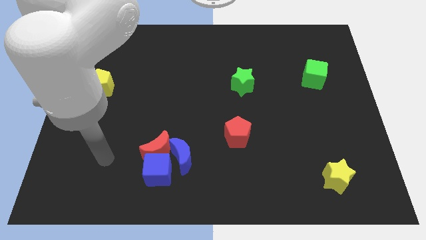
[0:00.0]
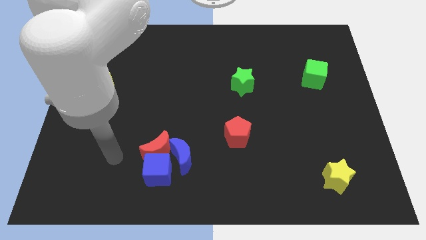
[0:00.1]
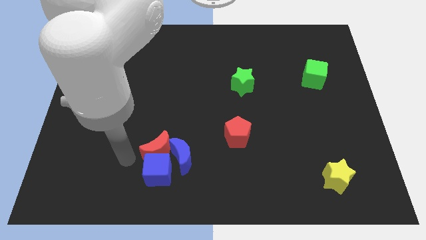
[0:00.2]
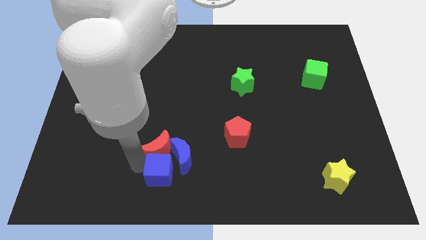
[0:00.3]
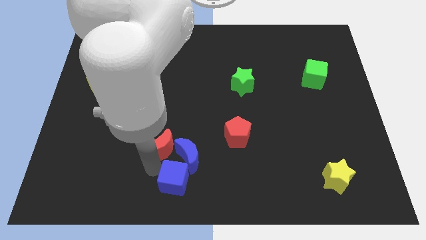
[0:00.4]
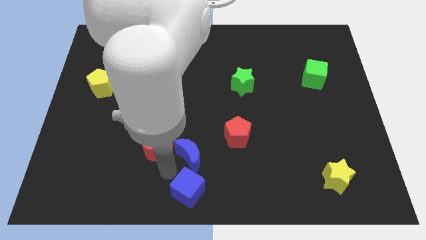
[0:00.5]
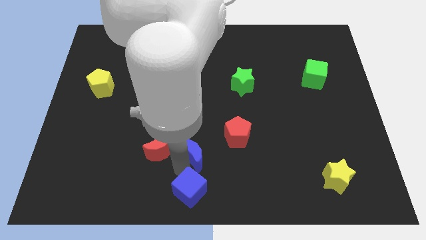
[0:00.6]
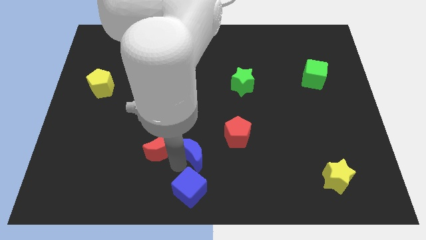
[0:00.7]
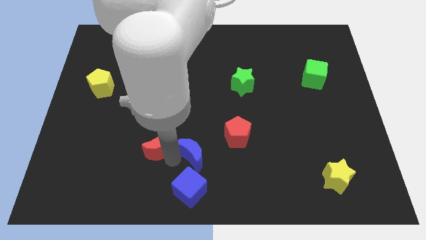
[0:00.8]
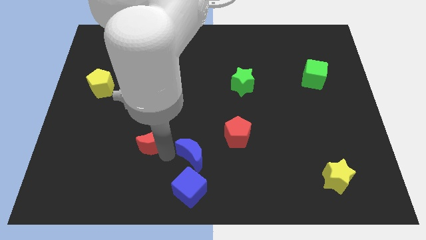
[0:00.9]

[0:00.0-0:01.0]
pull the red moon apart from the blue cube and blue moon

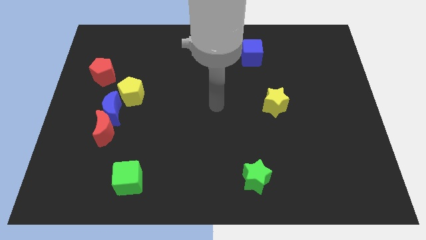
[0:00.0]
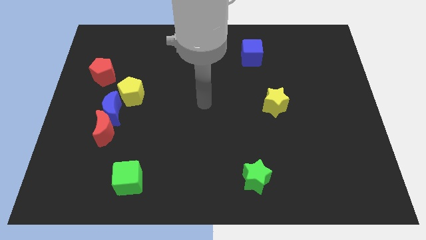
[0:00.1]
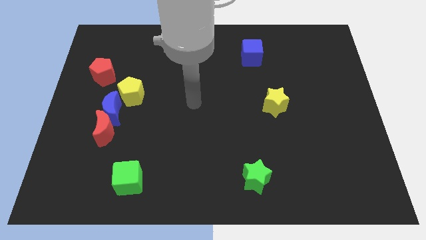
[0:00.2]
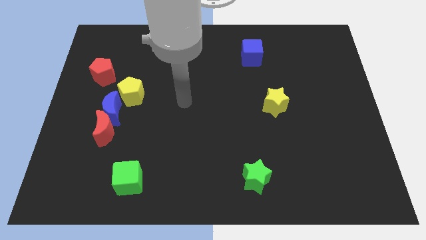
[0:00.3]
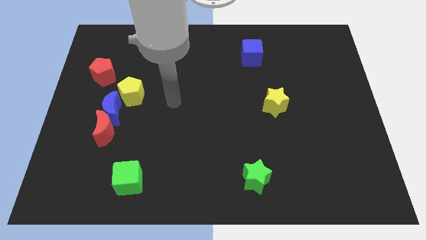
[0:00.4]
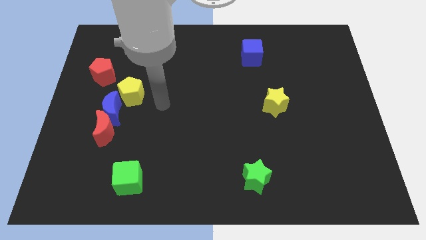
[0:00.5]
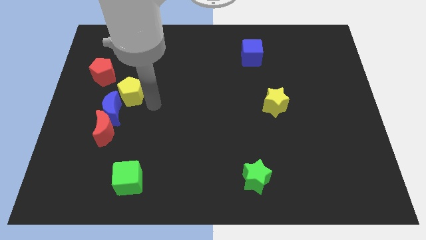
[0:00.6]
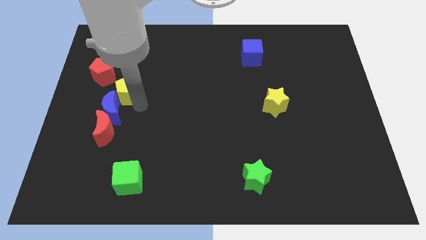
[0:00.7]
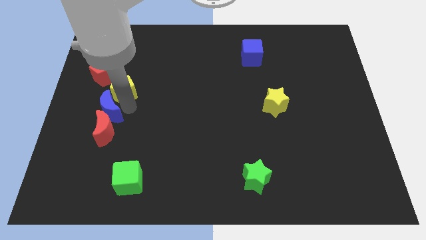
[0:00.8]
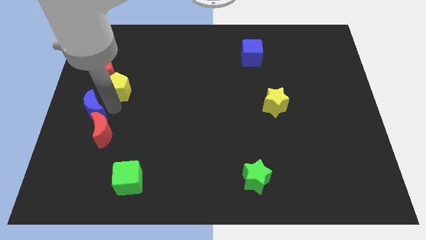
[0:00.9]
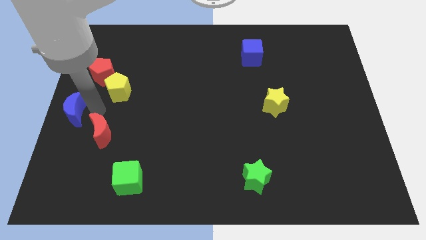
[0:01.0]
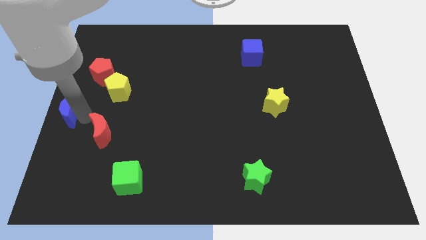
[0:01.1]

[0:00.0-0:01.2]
move the red moon away from the blue moon

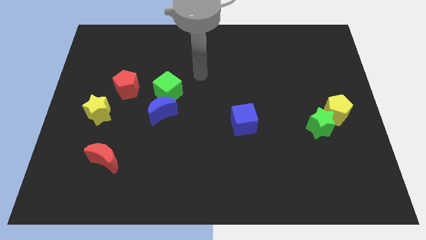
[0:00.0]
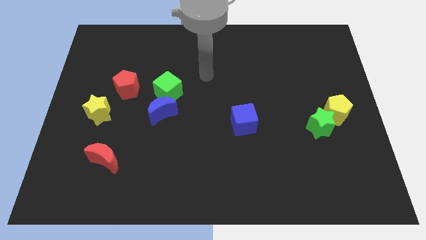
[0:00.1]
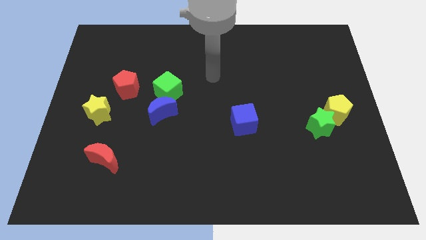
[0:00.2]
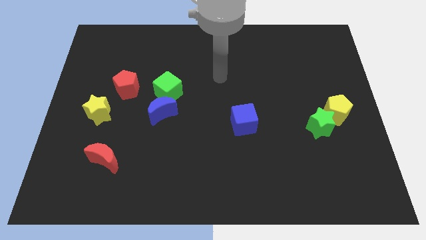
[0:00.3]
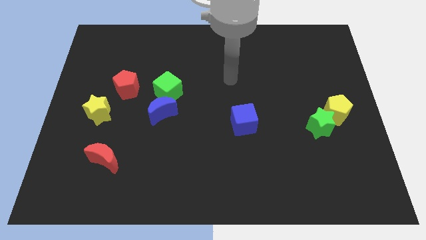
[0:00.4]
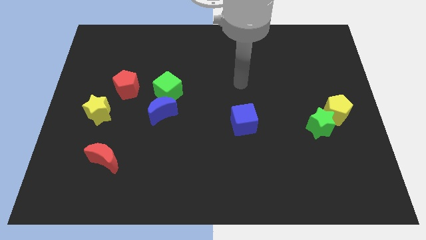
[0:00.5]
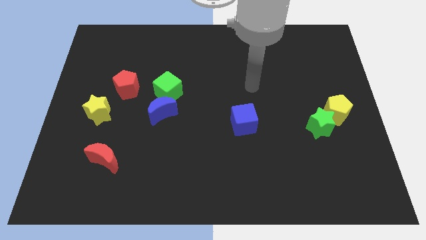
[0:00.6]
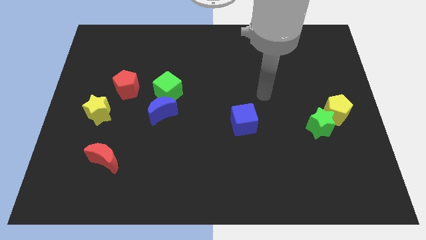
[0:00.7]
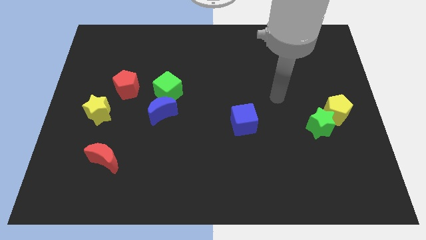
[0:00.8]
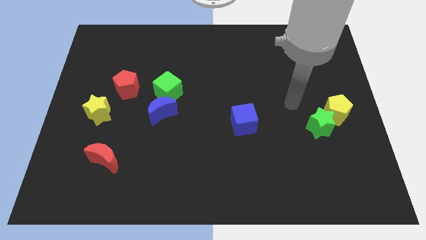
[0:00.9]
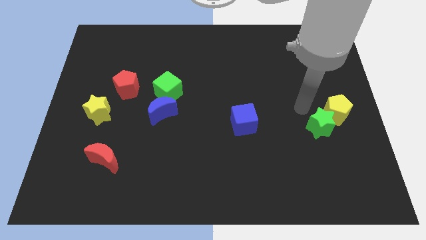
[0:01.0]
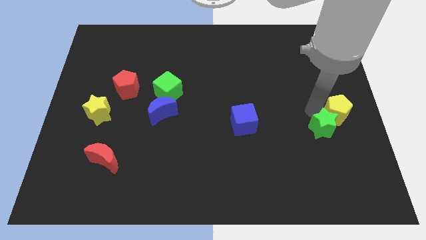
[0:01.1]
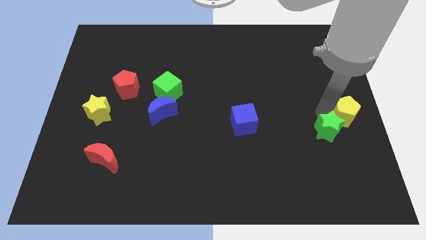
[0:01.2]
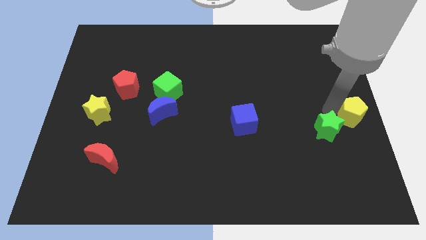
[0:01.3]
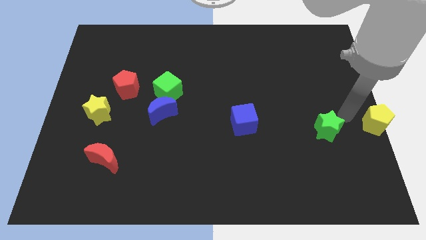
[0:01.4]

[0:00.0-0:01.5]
pull the green star apart from the yellow pentagon

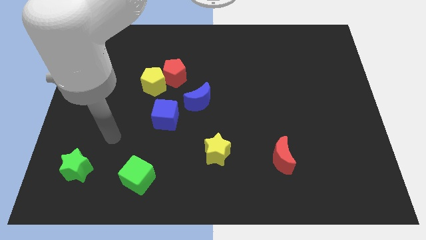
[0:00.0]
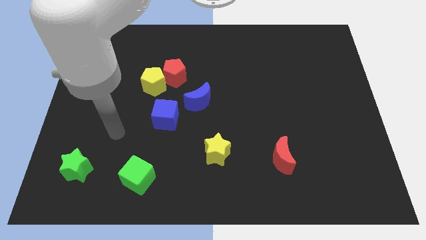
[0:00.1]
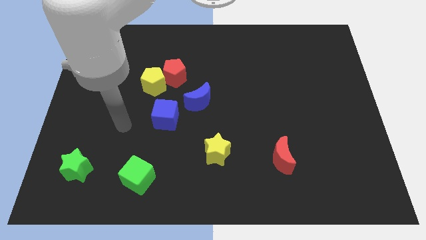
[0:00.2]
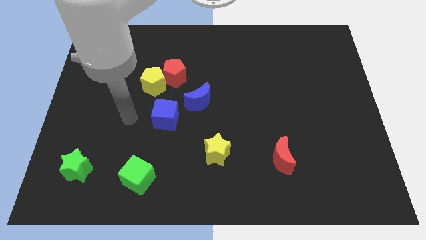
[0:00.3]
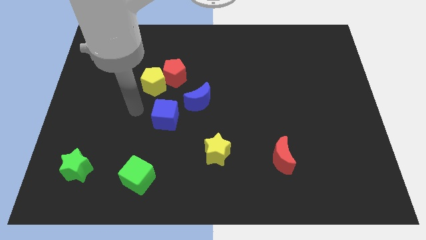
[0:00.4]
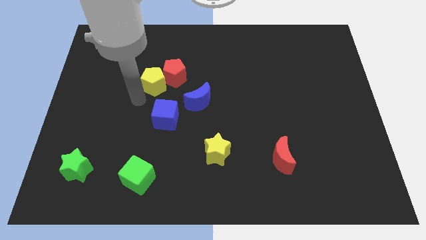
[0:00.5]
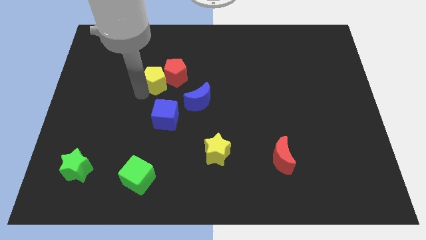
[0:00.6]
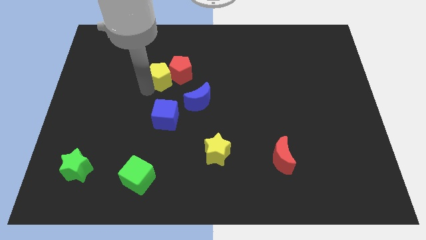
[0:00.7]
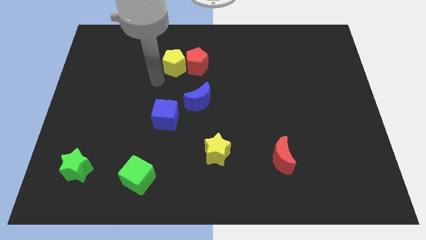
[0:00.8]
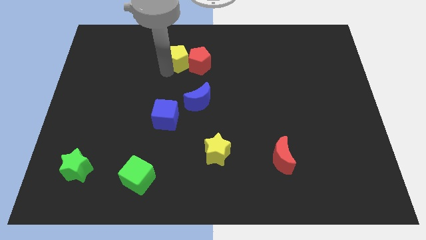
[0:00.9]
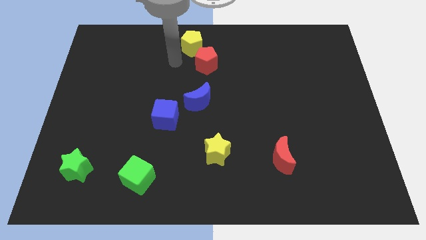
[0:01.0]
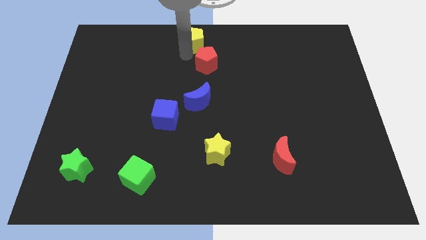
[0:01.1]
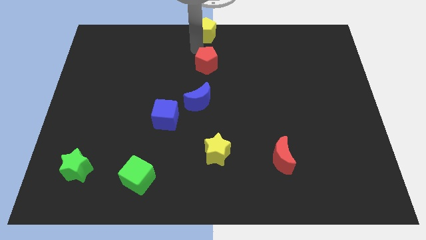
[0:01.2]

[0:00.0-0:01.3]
move the red pentagon away from the yellow pentagon

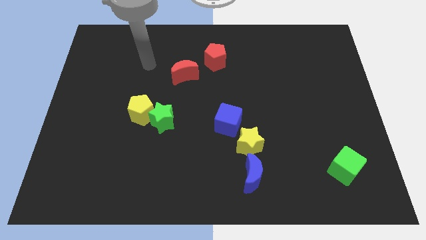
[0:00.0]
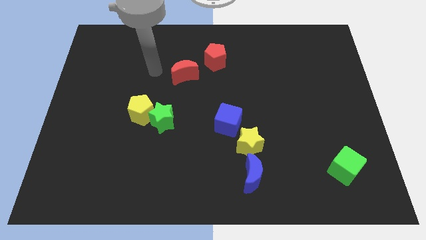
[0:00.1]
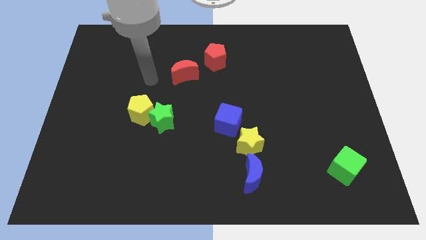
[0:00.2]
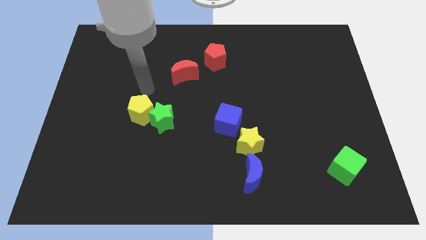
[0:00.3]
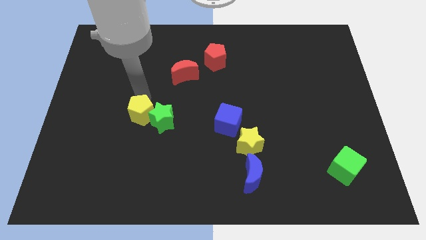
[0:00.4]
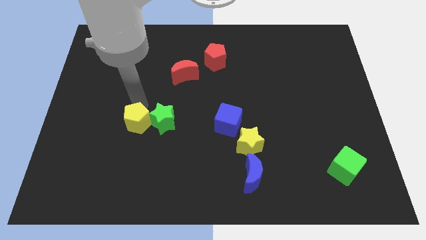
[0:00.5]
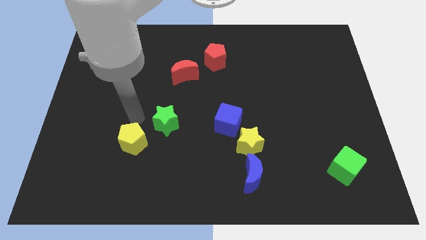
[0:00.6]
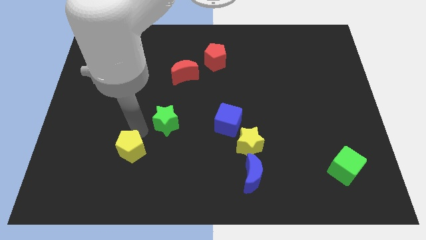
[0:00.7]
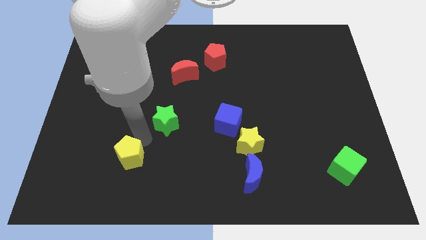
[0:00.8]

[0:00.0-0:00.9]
separate the green star from the yellow pentagon

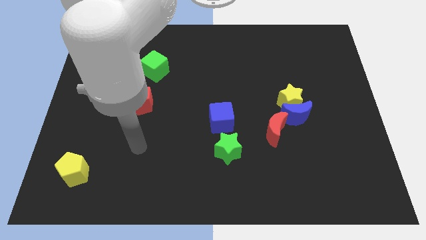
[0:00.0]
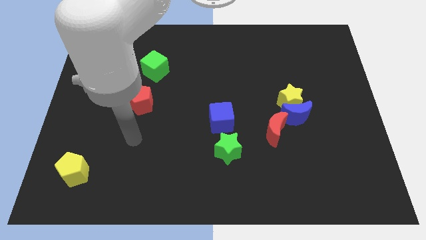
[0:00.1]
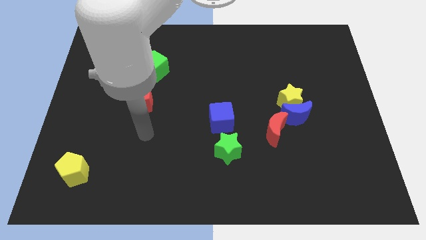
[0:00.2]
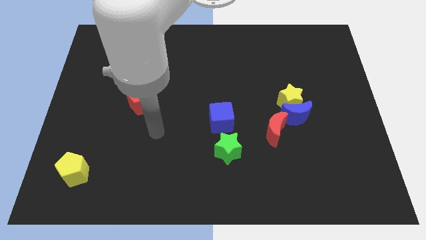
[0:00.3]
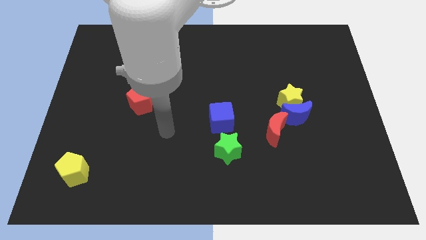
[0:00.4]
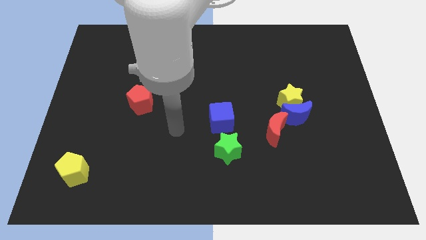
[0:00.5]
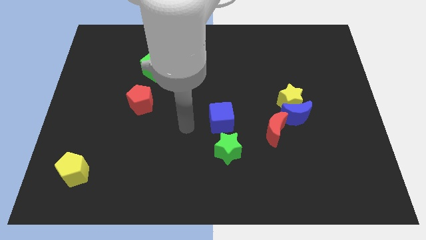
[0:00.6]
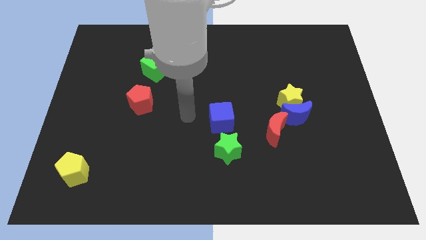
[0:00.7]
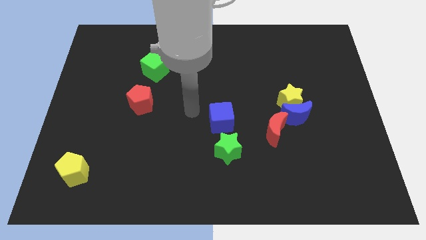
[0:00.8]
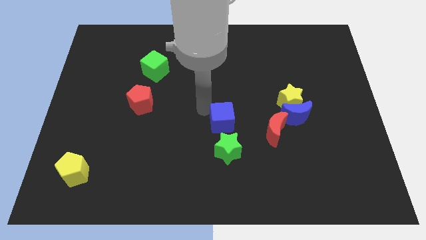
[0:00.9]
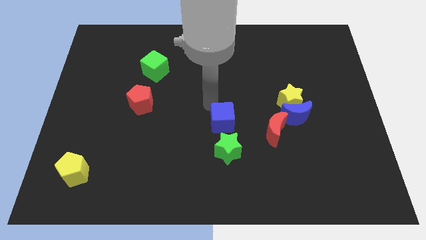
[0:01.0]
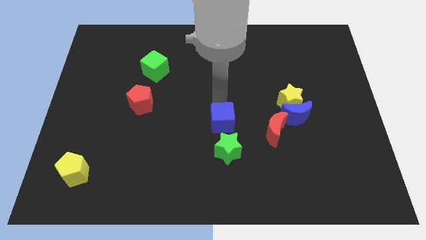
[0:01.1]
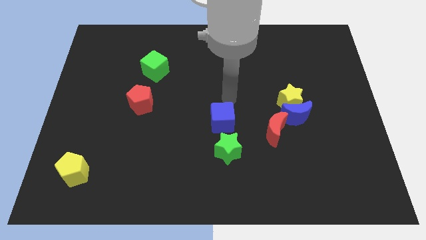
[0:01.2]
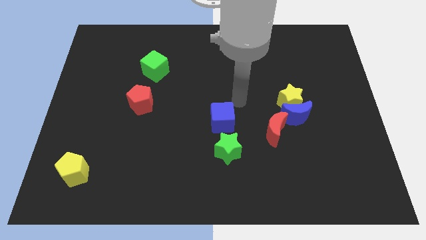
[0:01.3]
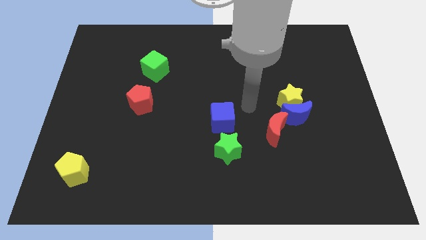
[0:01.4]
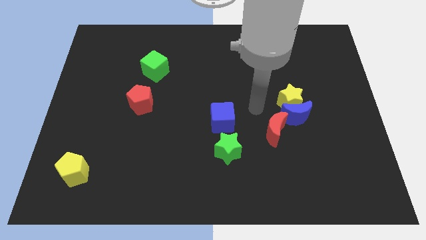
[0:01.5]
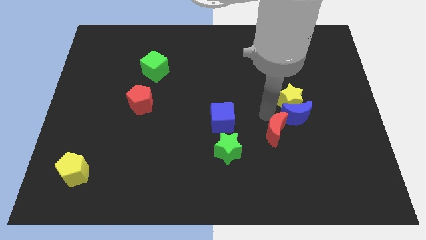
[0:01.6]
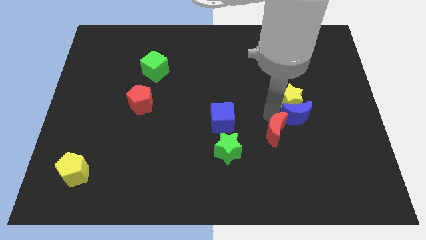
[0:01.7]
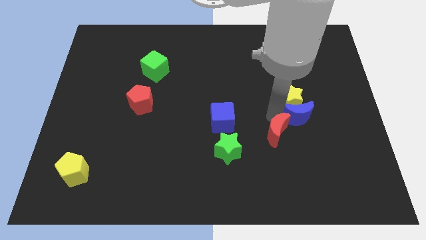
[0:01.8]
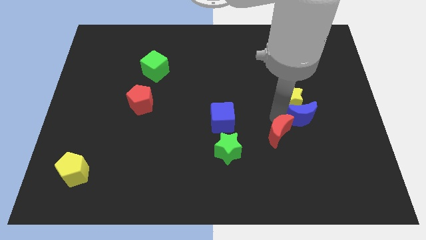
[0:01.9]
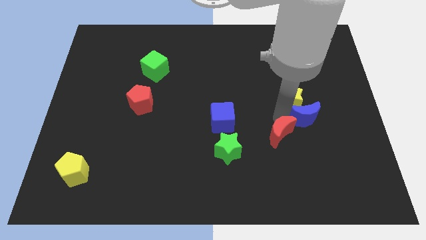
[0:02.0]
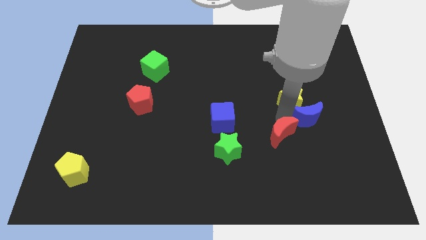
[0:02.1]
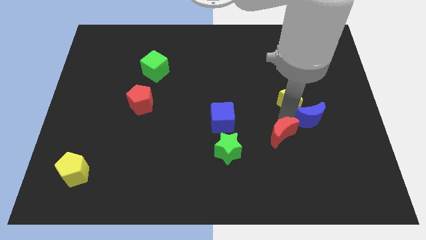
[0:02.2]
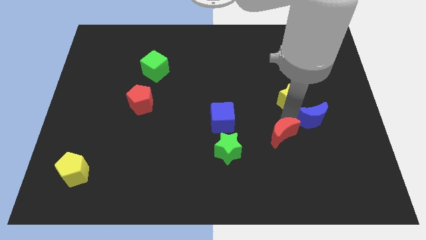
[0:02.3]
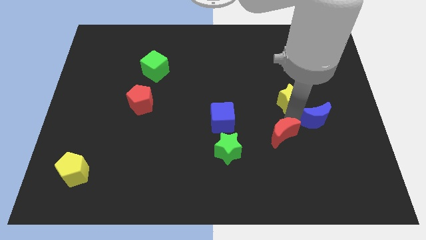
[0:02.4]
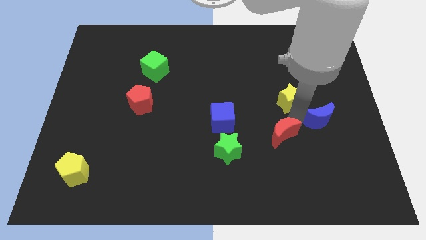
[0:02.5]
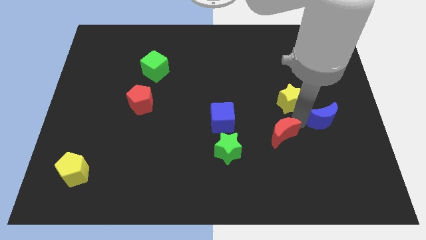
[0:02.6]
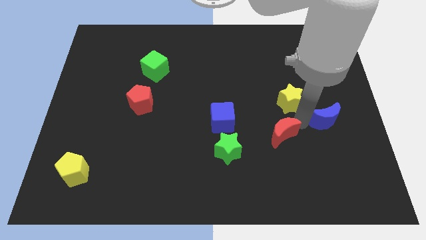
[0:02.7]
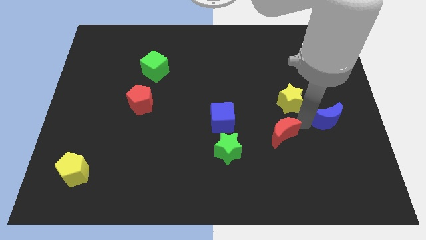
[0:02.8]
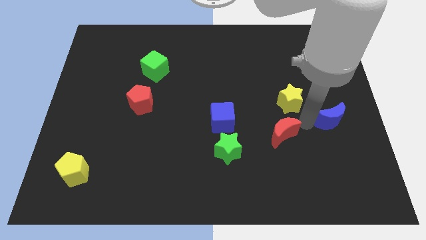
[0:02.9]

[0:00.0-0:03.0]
pull the blue moon apart from the yellow star and red moon

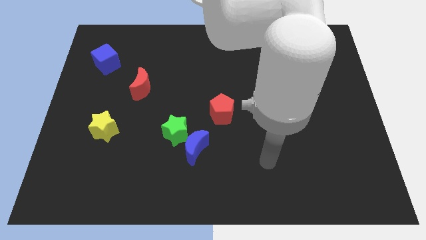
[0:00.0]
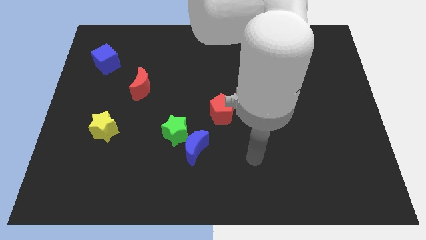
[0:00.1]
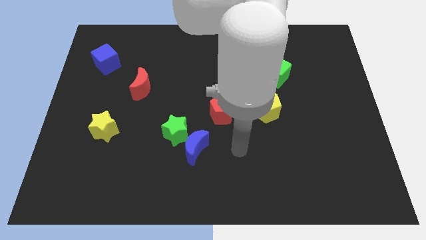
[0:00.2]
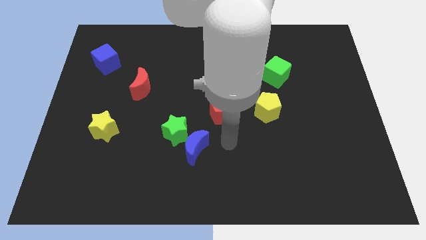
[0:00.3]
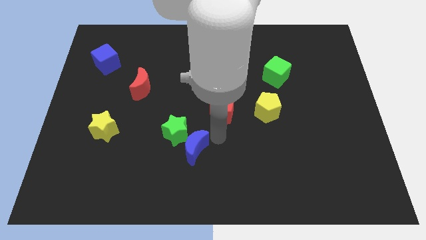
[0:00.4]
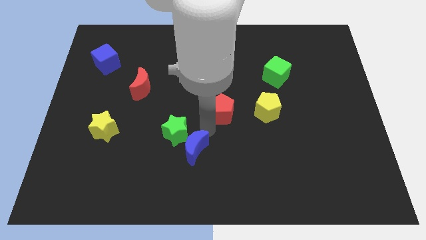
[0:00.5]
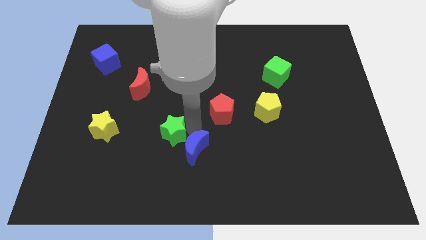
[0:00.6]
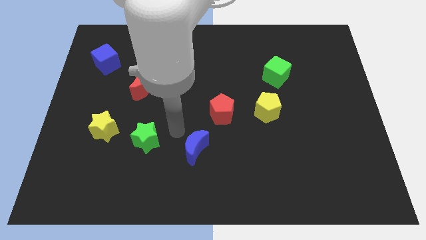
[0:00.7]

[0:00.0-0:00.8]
pull the blue moon apart from the green star
